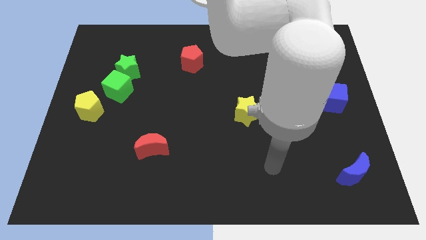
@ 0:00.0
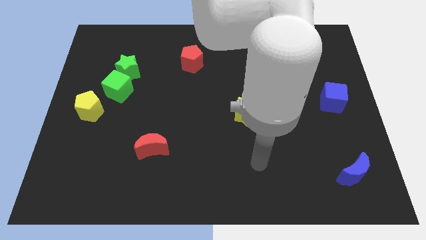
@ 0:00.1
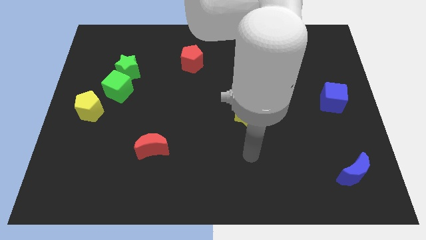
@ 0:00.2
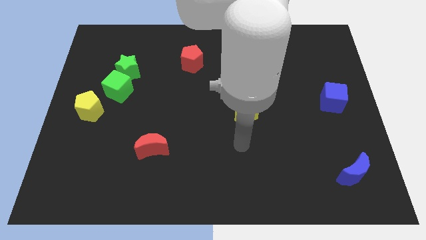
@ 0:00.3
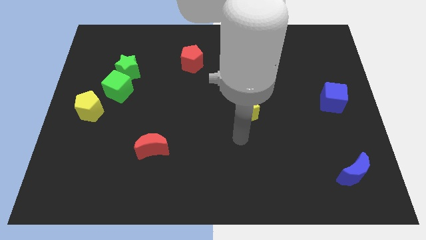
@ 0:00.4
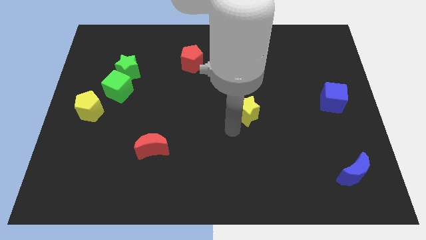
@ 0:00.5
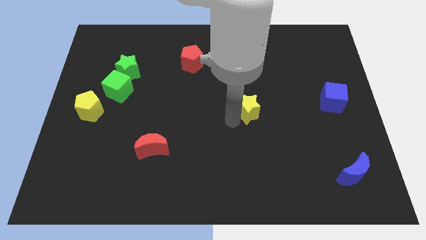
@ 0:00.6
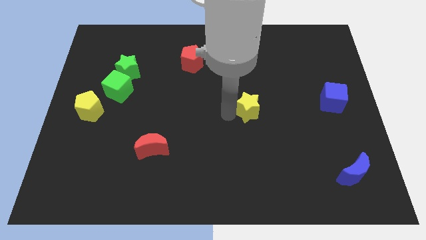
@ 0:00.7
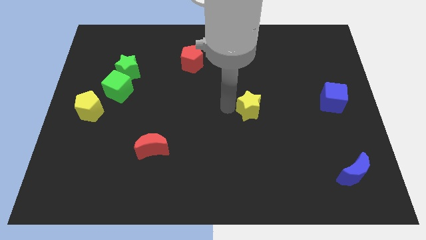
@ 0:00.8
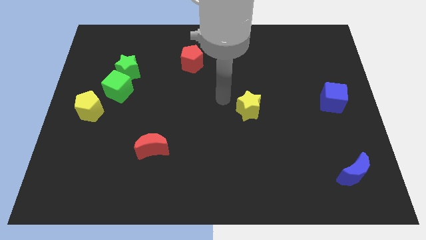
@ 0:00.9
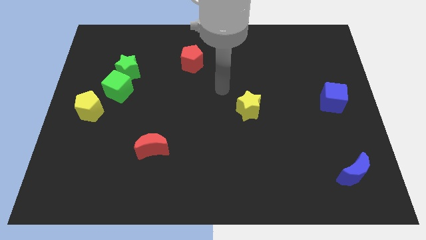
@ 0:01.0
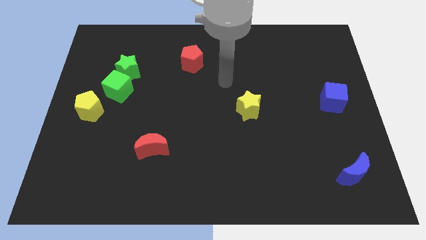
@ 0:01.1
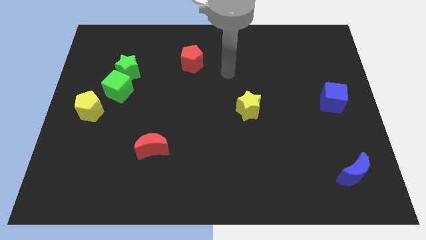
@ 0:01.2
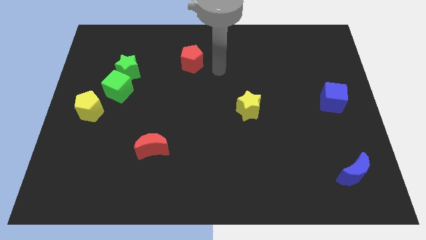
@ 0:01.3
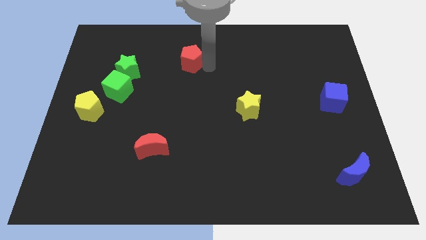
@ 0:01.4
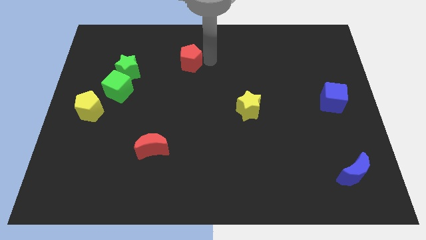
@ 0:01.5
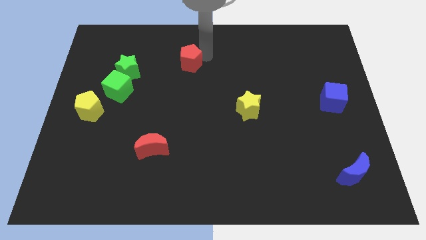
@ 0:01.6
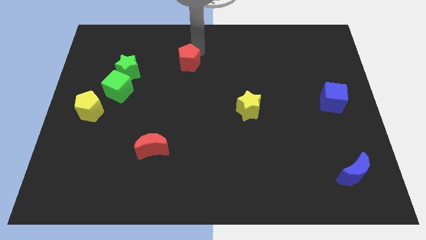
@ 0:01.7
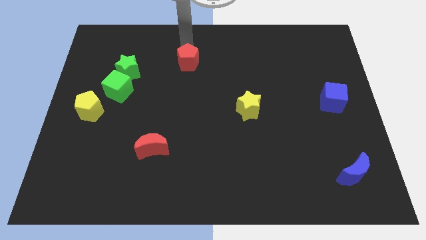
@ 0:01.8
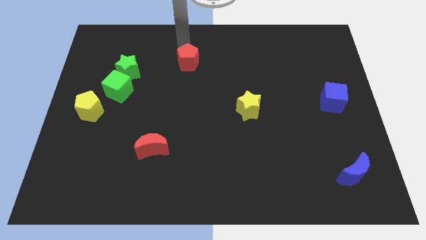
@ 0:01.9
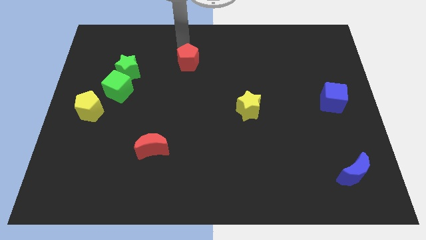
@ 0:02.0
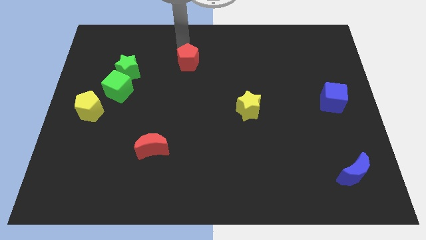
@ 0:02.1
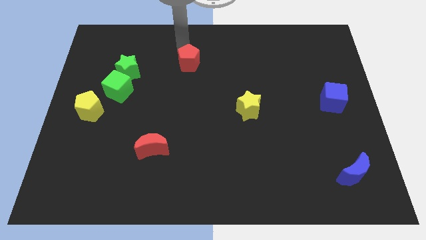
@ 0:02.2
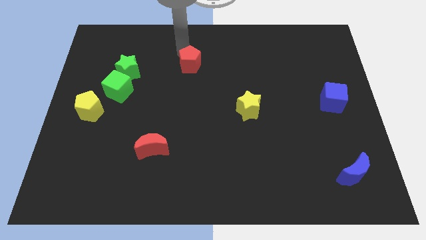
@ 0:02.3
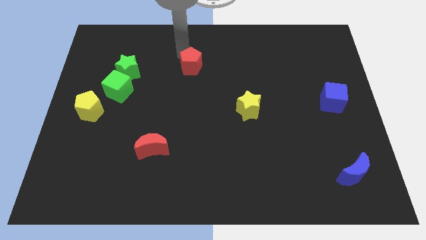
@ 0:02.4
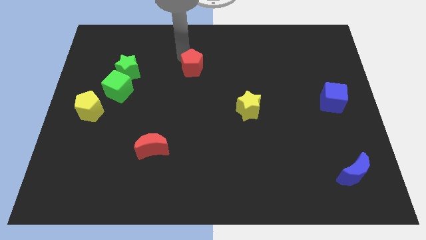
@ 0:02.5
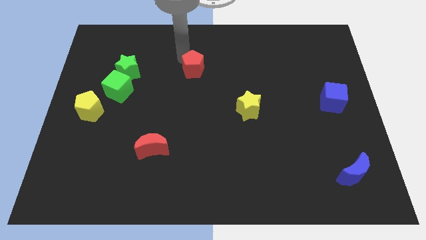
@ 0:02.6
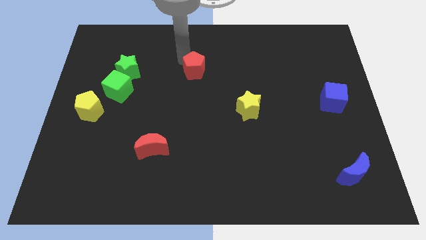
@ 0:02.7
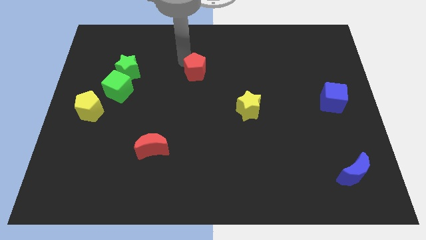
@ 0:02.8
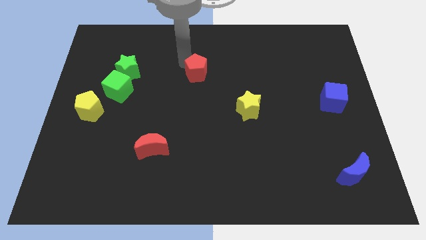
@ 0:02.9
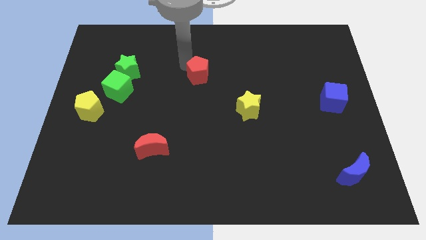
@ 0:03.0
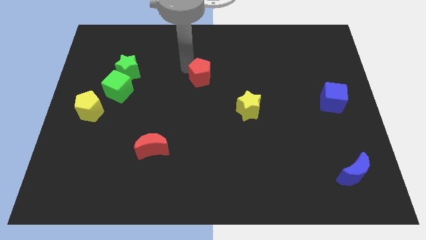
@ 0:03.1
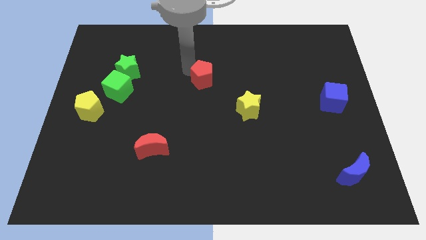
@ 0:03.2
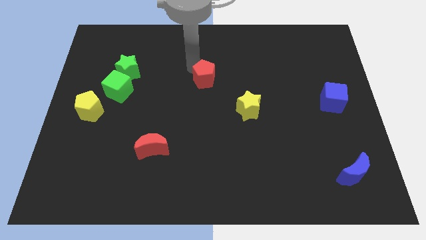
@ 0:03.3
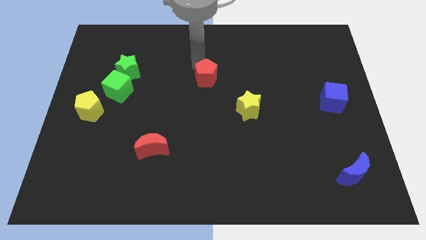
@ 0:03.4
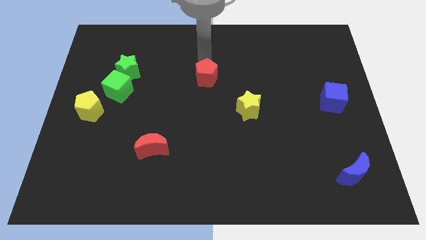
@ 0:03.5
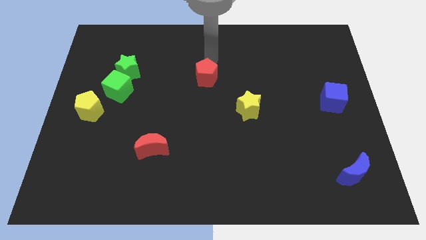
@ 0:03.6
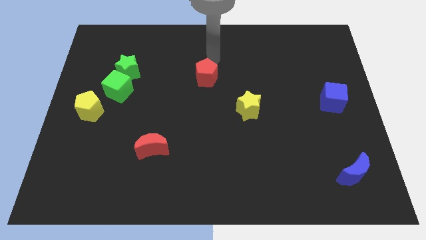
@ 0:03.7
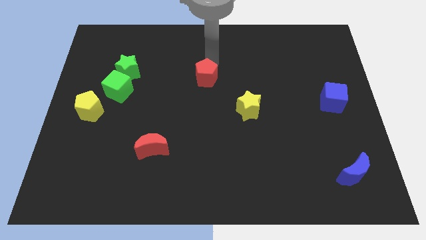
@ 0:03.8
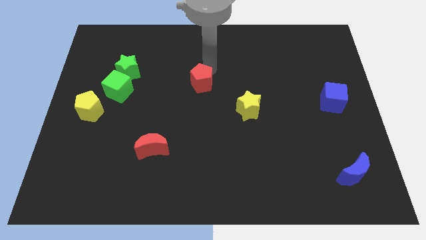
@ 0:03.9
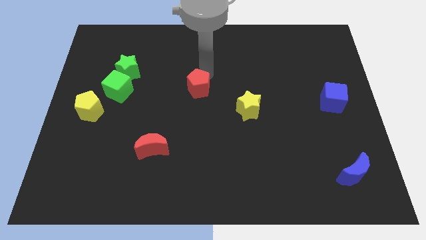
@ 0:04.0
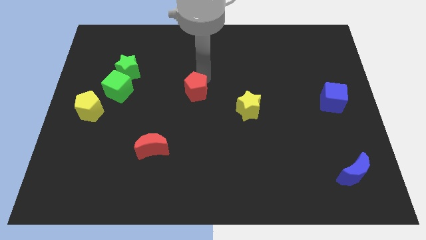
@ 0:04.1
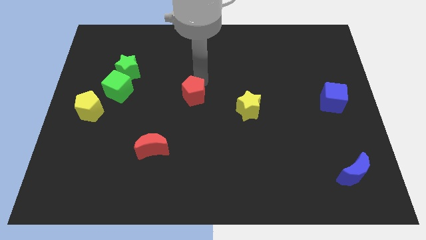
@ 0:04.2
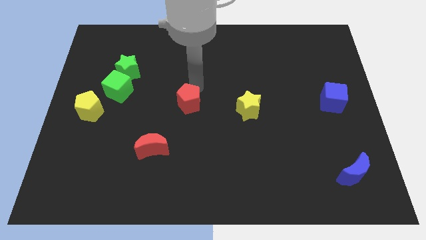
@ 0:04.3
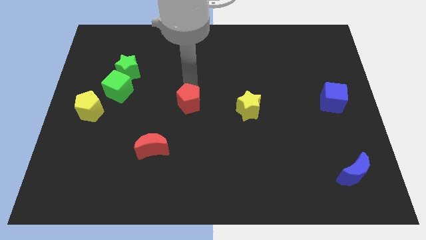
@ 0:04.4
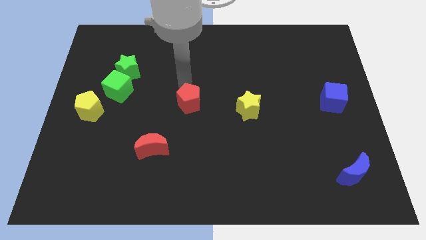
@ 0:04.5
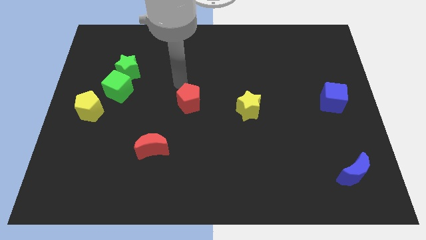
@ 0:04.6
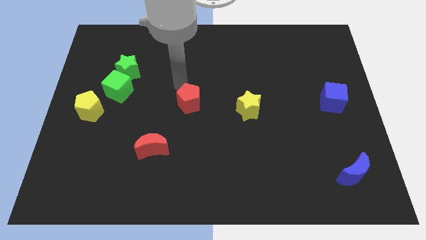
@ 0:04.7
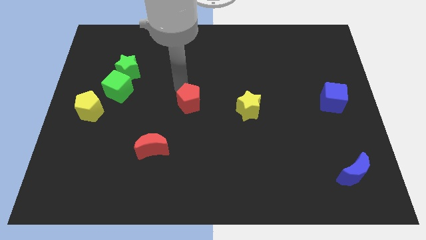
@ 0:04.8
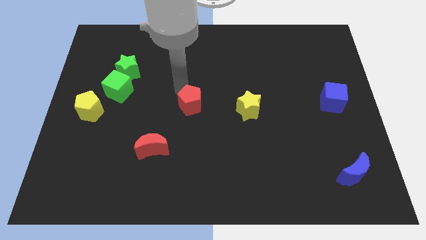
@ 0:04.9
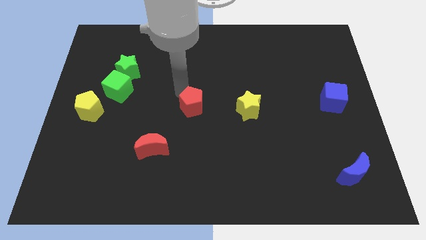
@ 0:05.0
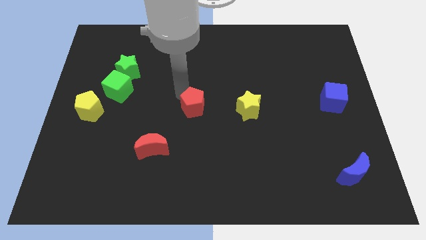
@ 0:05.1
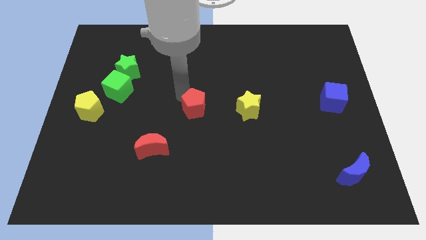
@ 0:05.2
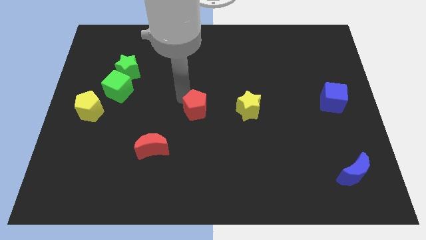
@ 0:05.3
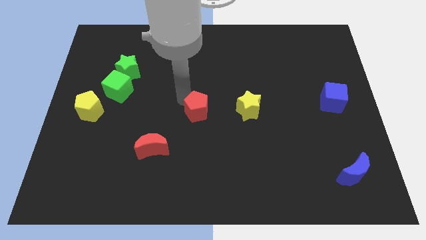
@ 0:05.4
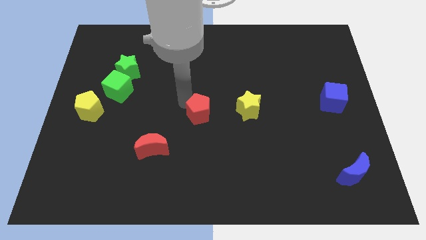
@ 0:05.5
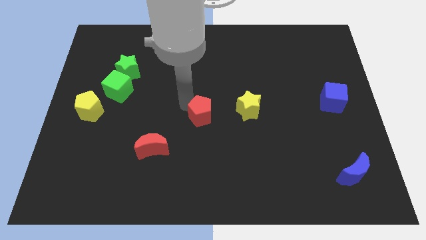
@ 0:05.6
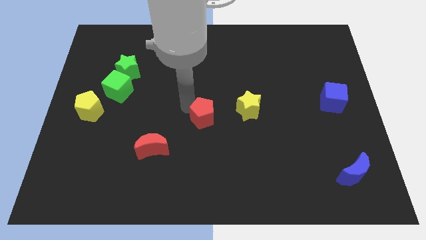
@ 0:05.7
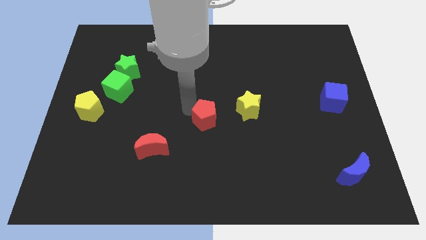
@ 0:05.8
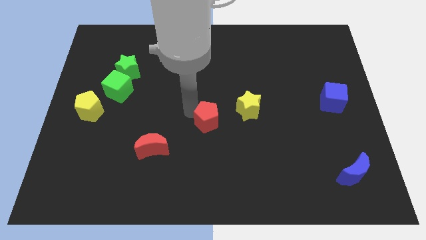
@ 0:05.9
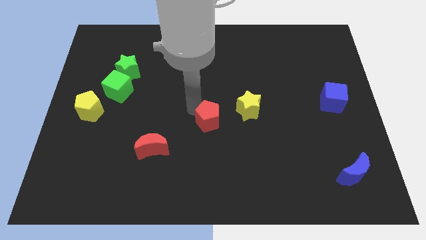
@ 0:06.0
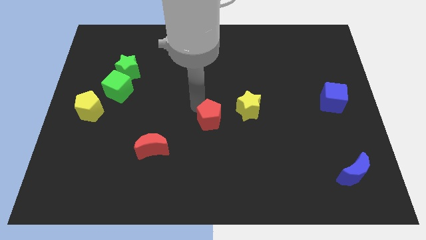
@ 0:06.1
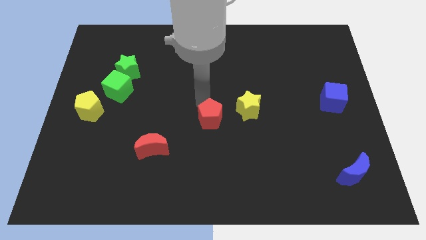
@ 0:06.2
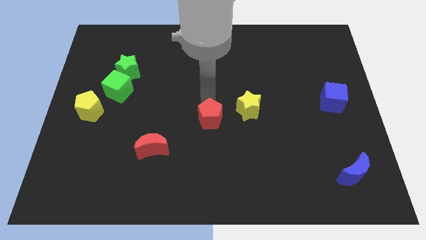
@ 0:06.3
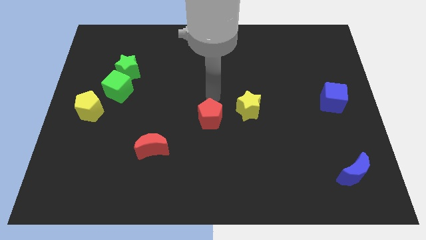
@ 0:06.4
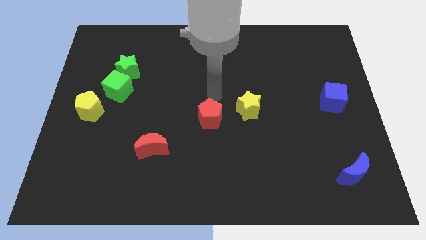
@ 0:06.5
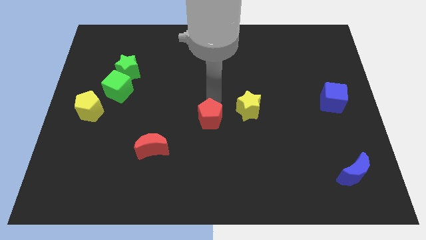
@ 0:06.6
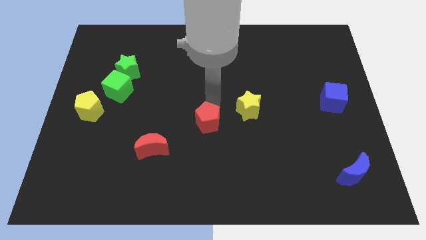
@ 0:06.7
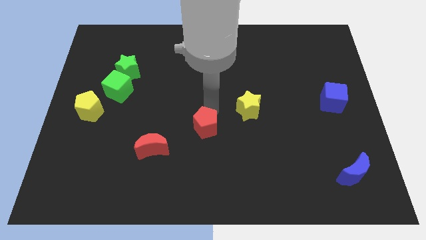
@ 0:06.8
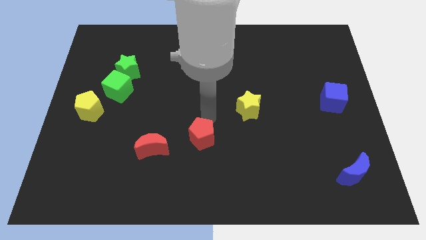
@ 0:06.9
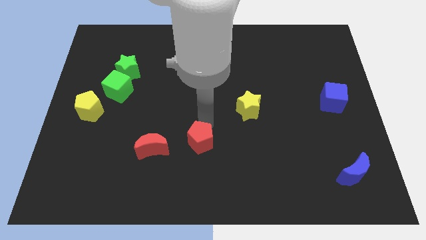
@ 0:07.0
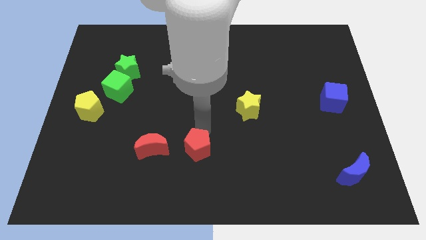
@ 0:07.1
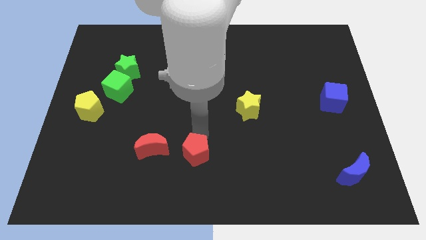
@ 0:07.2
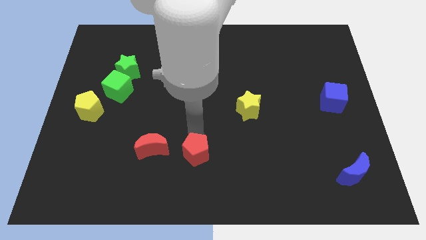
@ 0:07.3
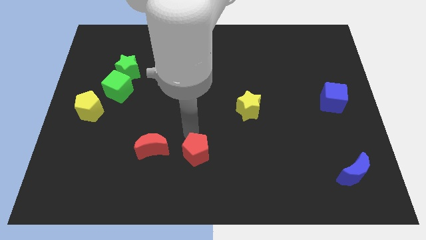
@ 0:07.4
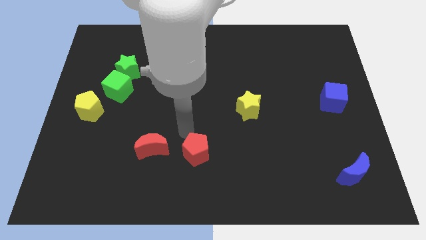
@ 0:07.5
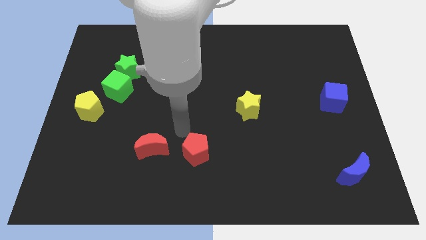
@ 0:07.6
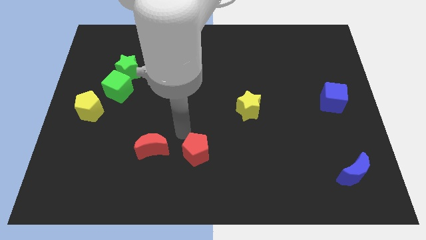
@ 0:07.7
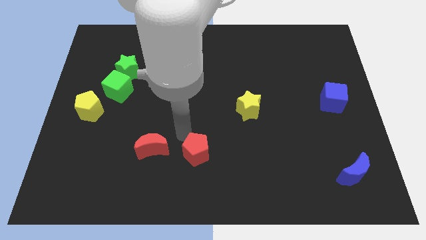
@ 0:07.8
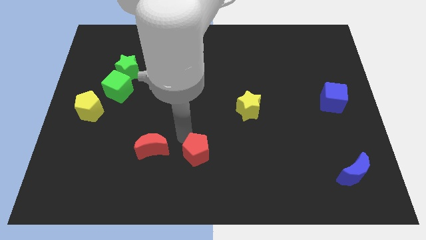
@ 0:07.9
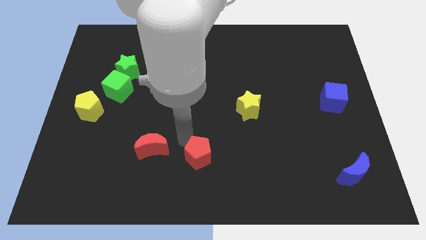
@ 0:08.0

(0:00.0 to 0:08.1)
push the red pentagon to the bottom side
